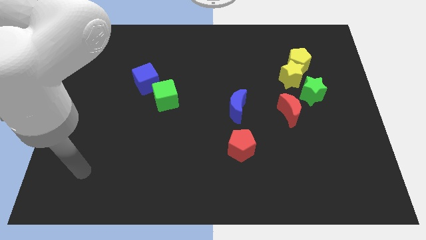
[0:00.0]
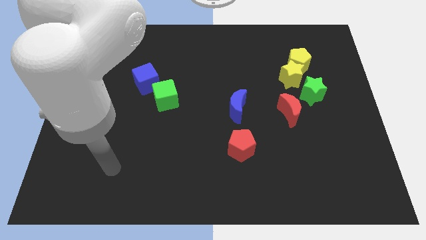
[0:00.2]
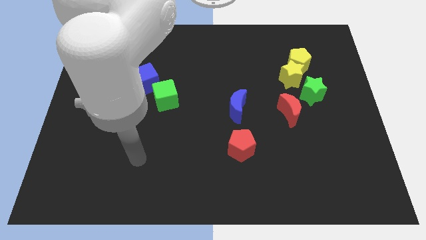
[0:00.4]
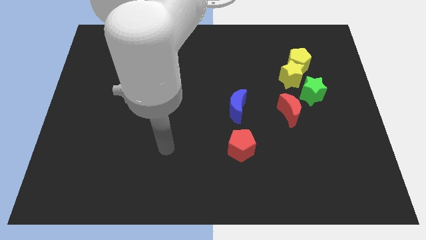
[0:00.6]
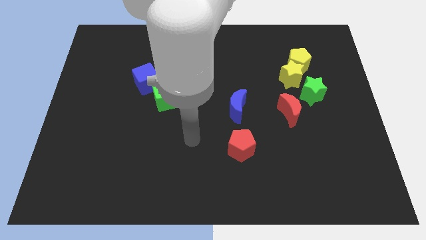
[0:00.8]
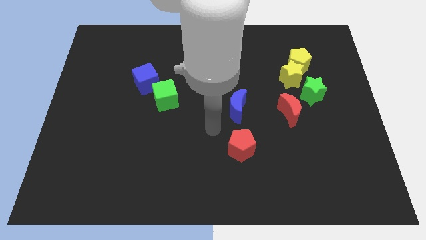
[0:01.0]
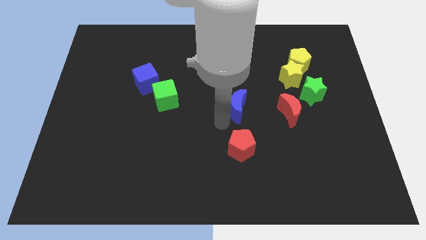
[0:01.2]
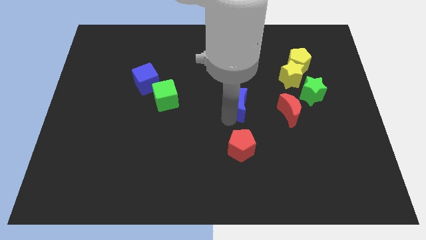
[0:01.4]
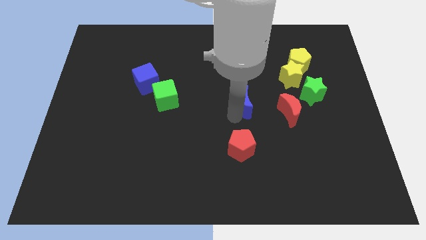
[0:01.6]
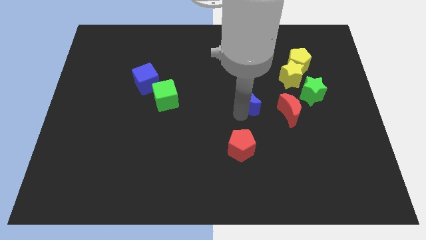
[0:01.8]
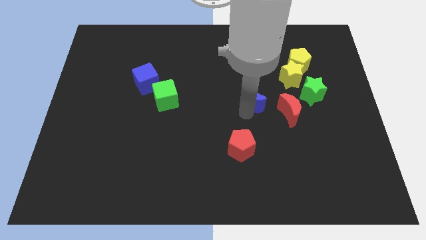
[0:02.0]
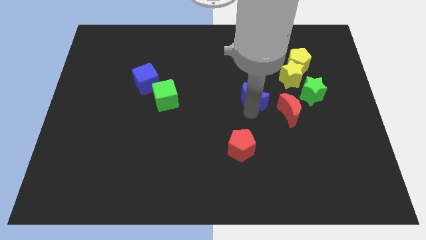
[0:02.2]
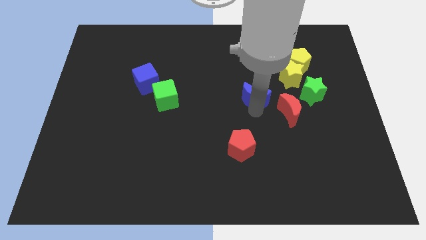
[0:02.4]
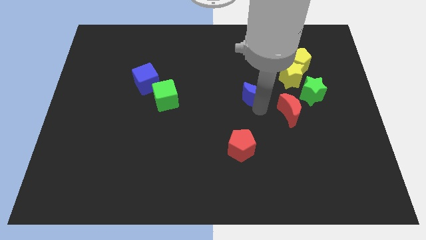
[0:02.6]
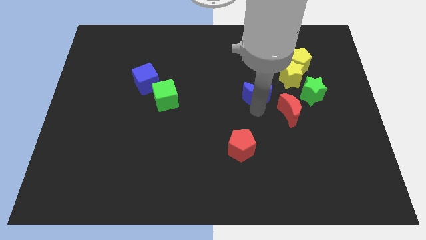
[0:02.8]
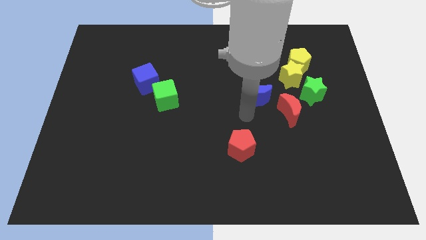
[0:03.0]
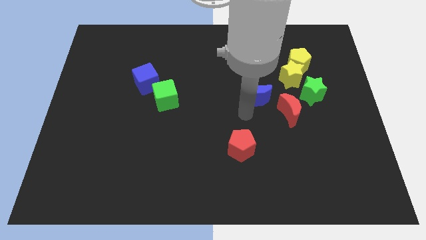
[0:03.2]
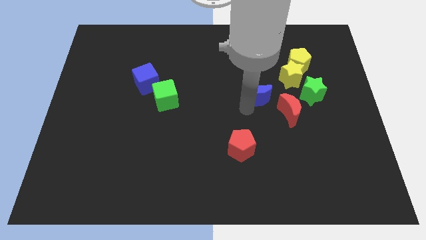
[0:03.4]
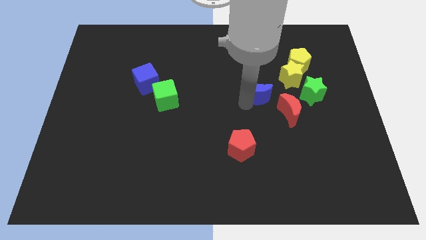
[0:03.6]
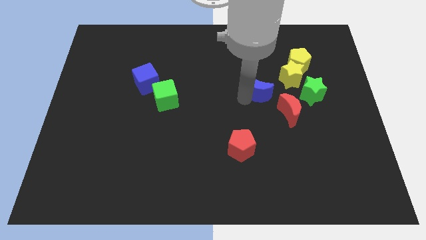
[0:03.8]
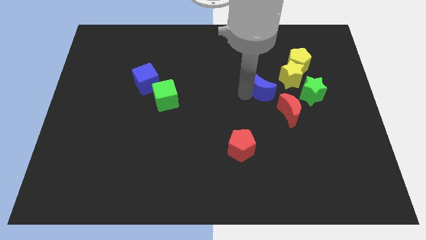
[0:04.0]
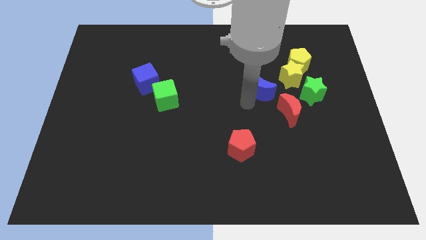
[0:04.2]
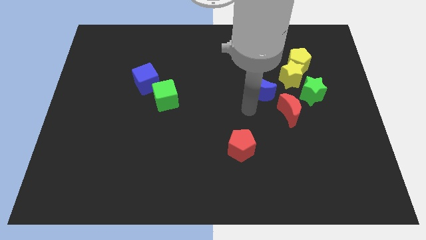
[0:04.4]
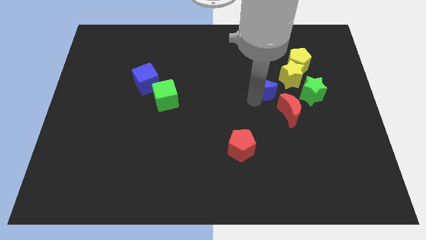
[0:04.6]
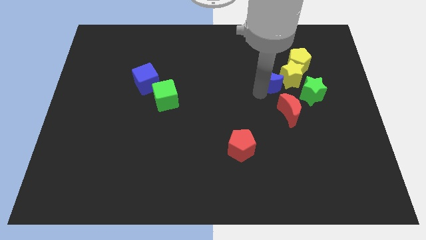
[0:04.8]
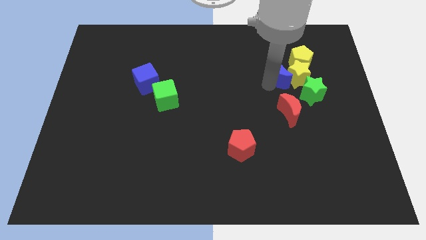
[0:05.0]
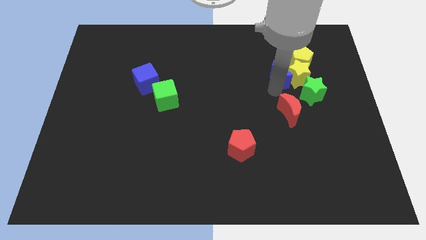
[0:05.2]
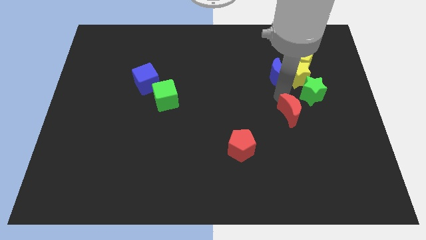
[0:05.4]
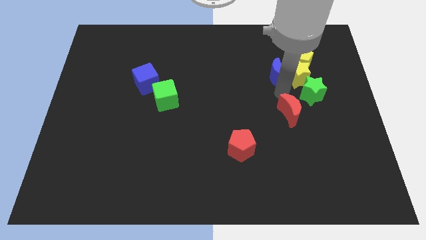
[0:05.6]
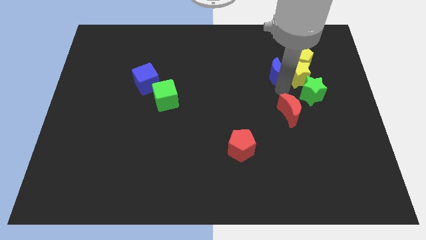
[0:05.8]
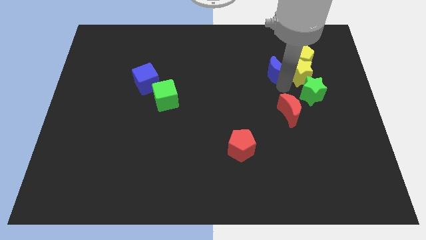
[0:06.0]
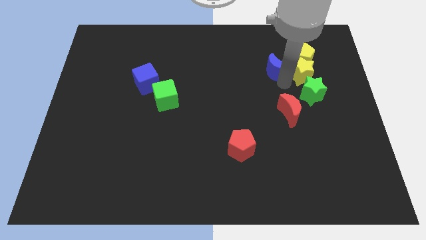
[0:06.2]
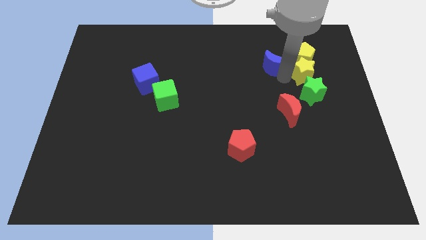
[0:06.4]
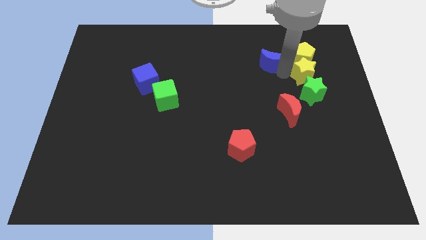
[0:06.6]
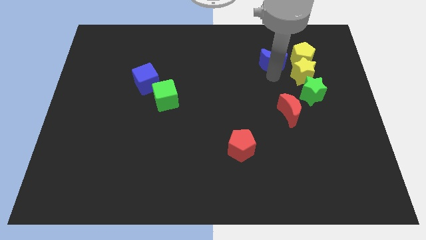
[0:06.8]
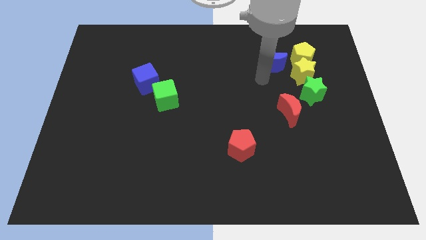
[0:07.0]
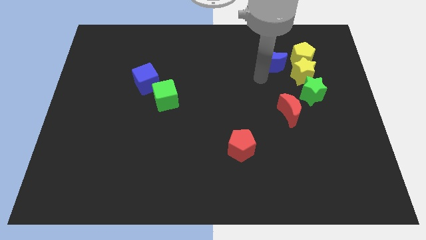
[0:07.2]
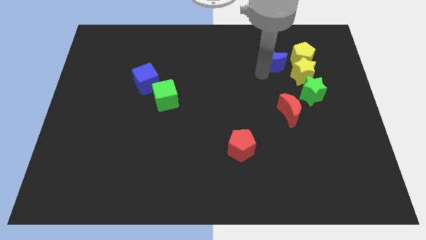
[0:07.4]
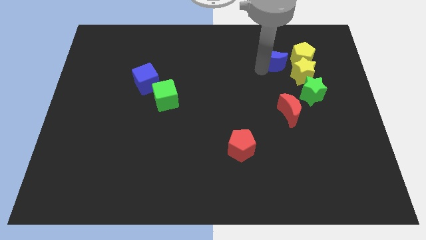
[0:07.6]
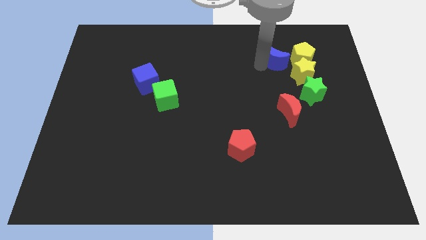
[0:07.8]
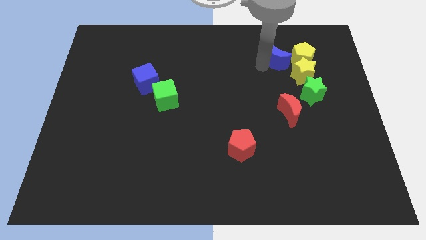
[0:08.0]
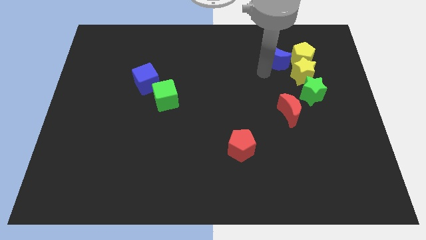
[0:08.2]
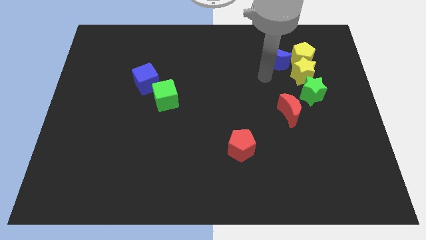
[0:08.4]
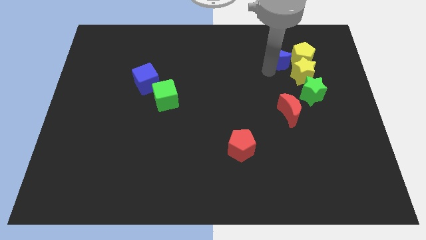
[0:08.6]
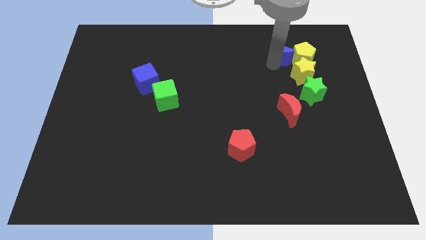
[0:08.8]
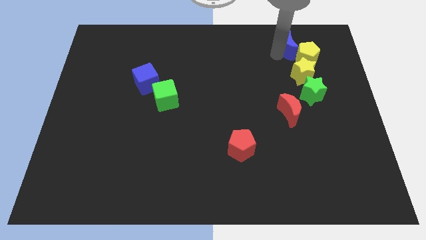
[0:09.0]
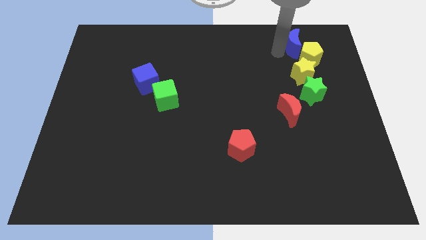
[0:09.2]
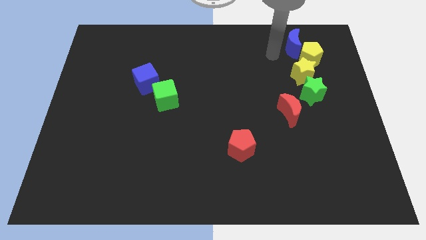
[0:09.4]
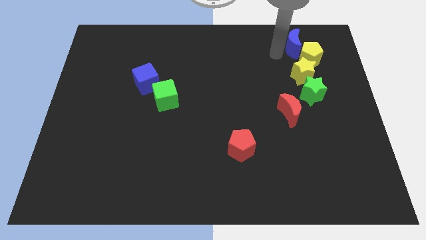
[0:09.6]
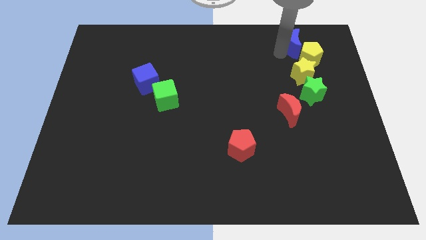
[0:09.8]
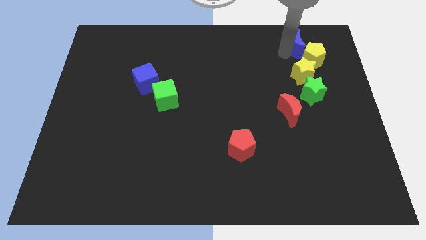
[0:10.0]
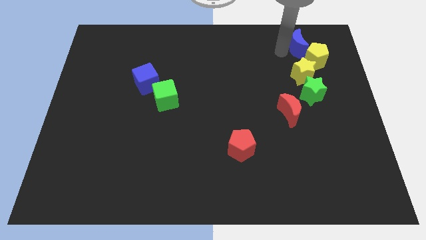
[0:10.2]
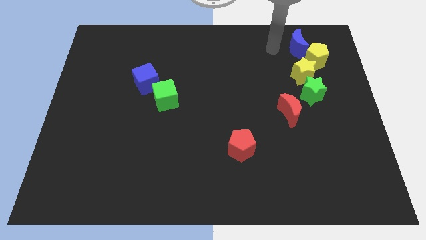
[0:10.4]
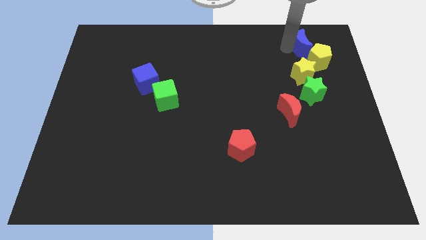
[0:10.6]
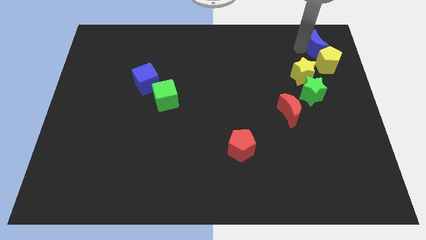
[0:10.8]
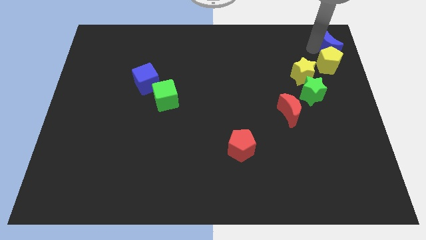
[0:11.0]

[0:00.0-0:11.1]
push the blue moon to the top right

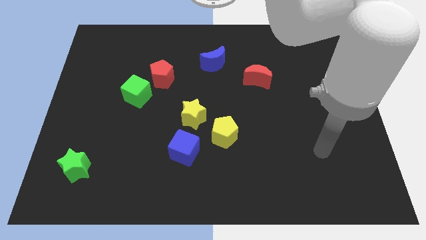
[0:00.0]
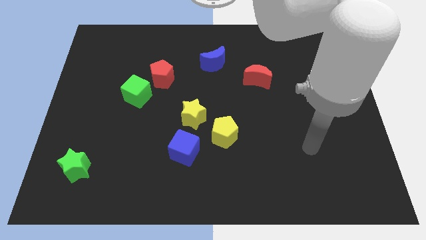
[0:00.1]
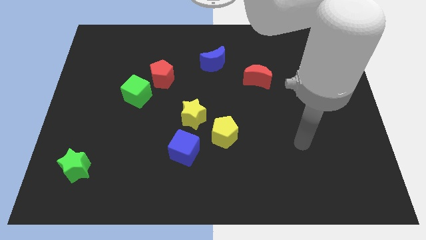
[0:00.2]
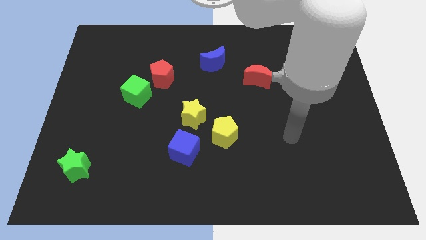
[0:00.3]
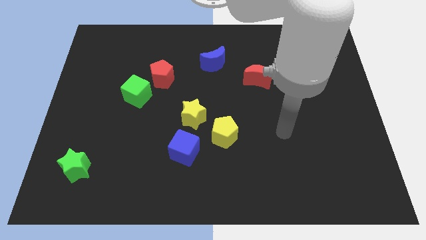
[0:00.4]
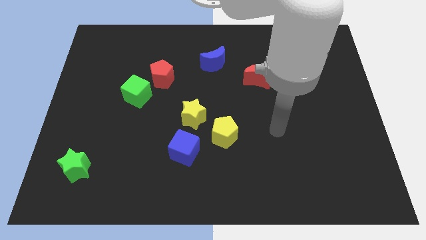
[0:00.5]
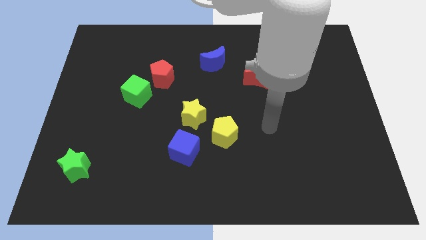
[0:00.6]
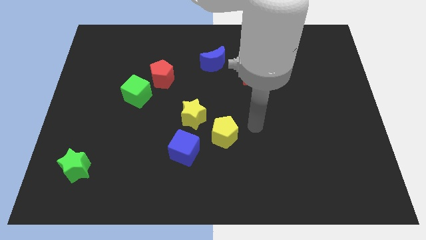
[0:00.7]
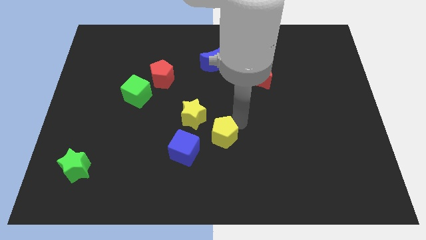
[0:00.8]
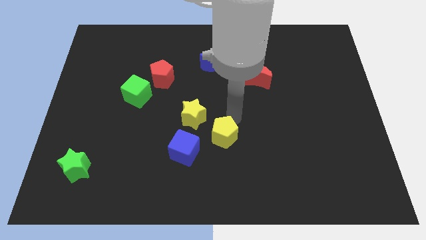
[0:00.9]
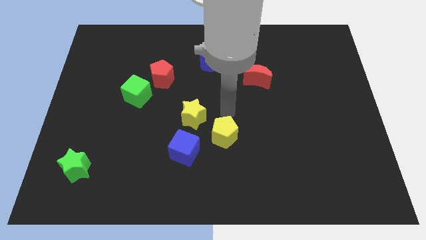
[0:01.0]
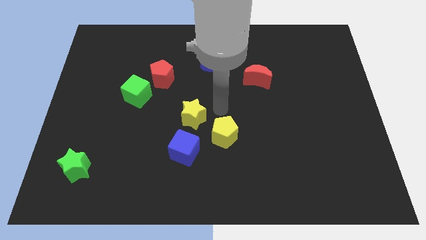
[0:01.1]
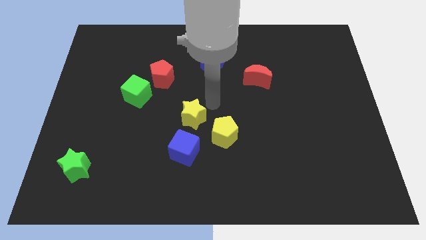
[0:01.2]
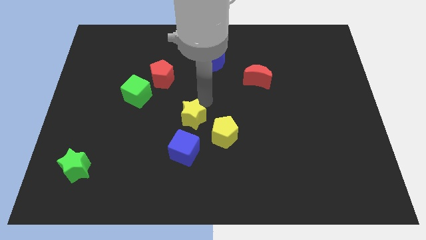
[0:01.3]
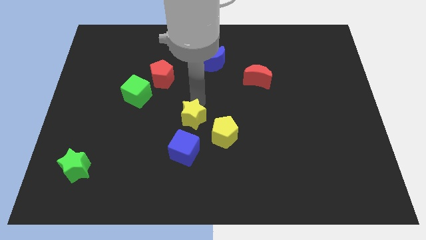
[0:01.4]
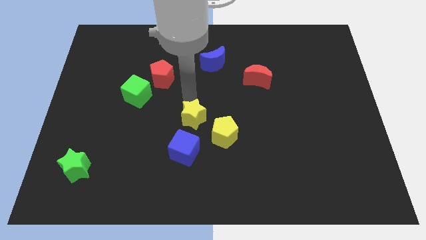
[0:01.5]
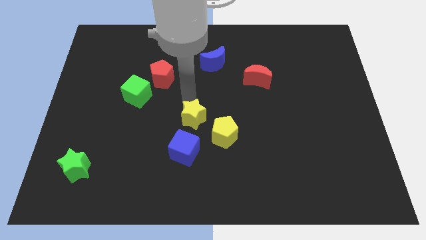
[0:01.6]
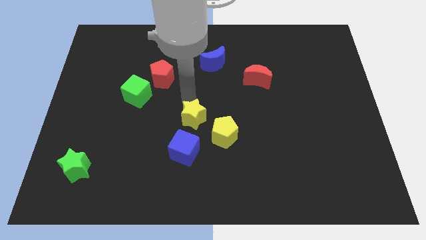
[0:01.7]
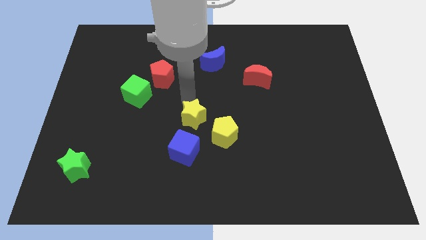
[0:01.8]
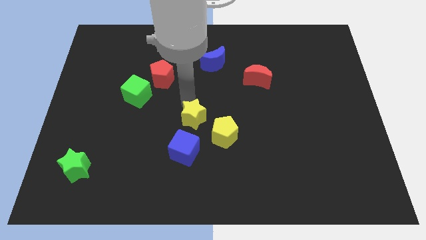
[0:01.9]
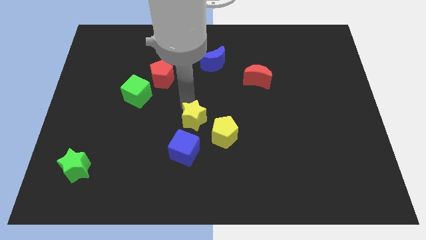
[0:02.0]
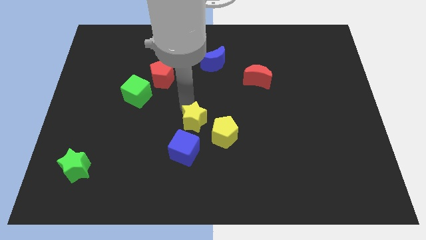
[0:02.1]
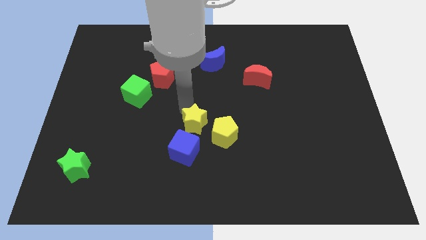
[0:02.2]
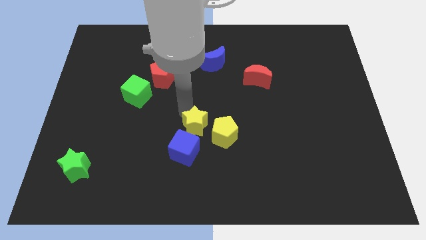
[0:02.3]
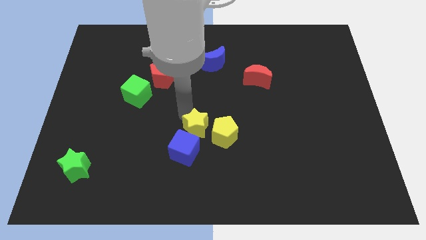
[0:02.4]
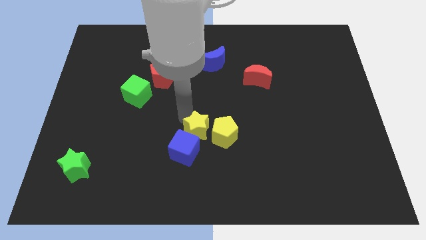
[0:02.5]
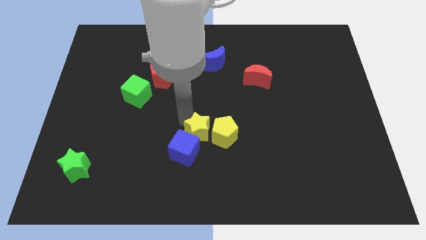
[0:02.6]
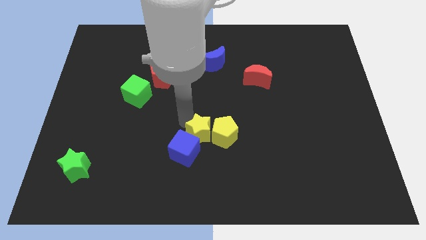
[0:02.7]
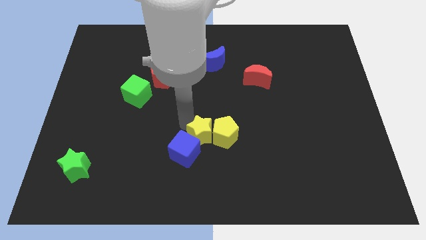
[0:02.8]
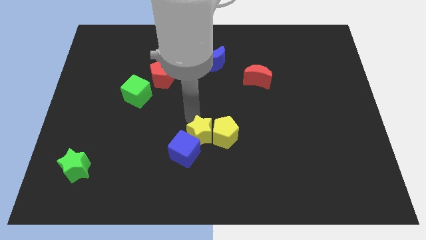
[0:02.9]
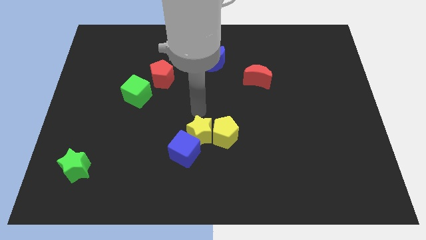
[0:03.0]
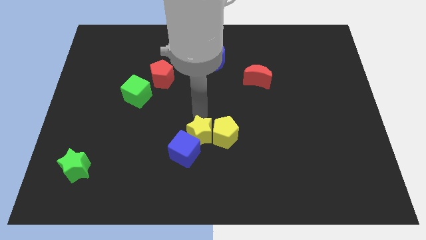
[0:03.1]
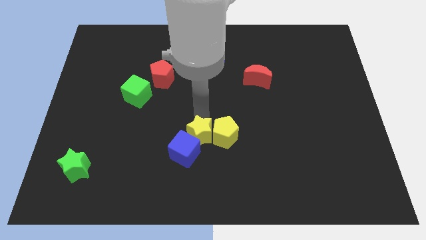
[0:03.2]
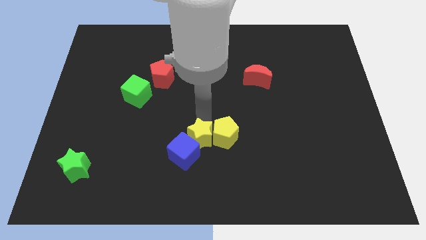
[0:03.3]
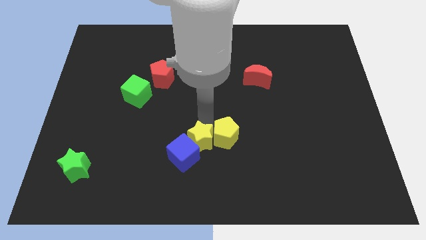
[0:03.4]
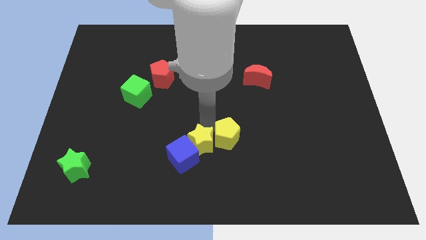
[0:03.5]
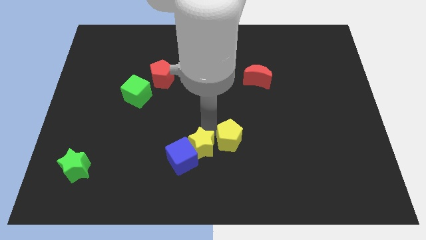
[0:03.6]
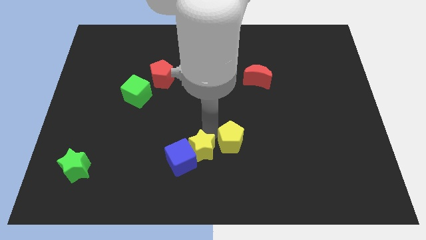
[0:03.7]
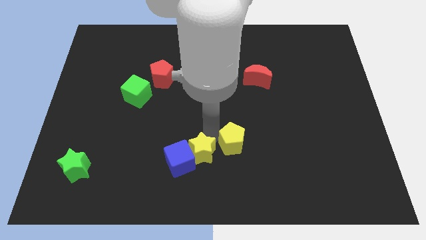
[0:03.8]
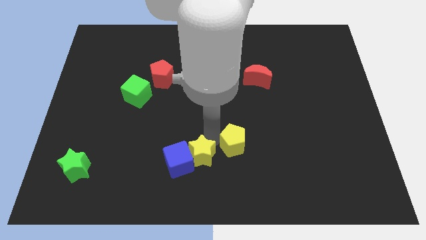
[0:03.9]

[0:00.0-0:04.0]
slide the yellow star to the bottom side
